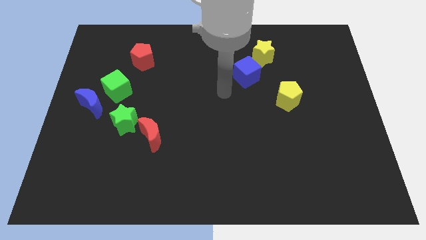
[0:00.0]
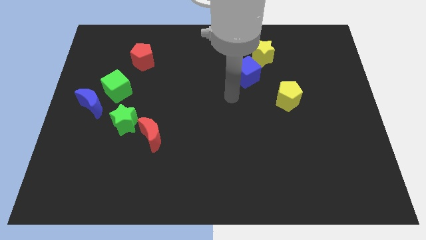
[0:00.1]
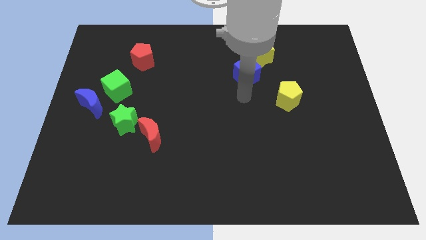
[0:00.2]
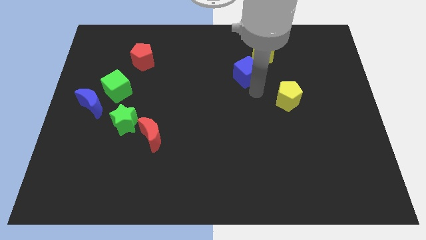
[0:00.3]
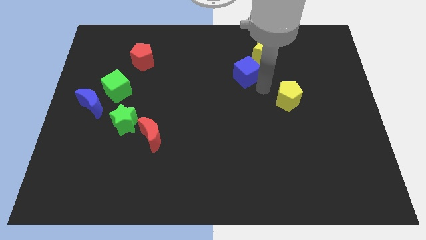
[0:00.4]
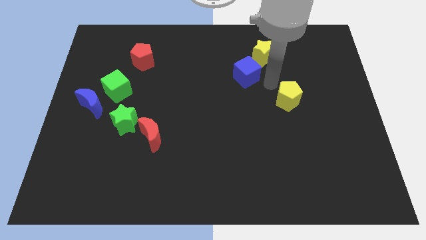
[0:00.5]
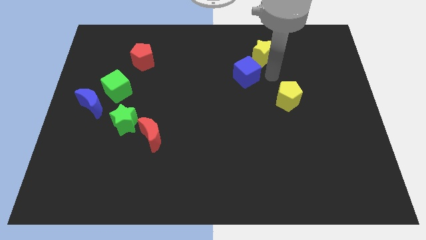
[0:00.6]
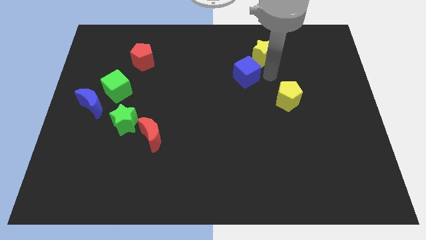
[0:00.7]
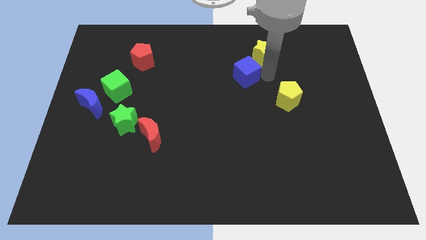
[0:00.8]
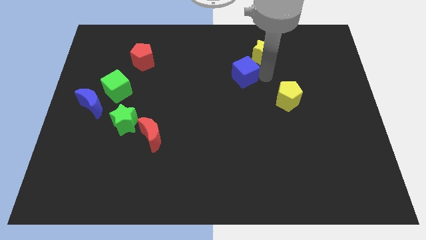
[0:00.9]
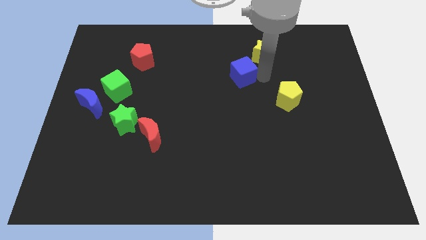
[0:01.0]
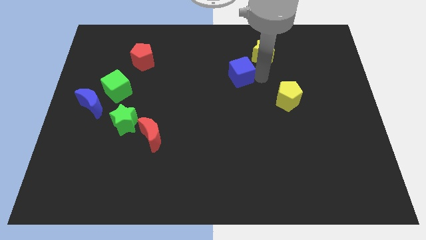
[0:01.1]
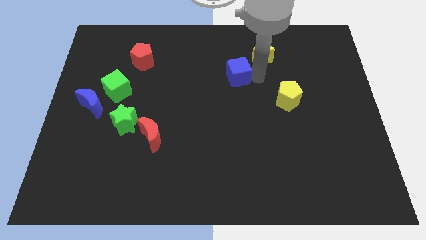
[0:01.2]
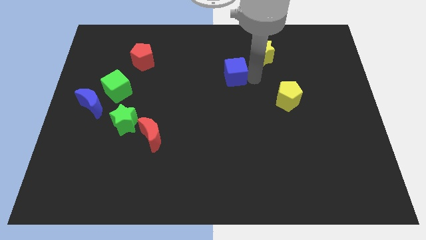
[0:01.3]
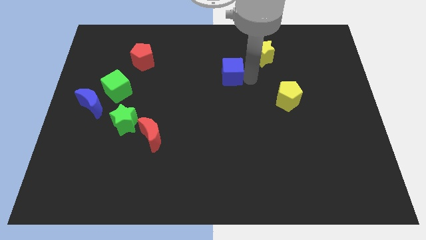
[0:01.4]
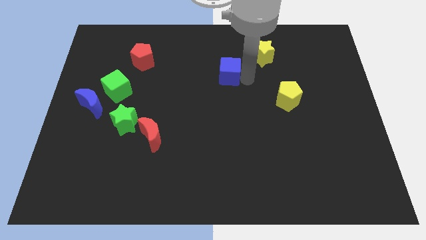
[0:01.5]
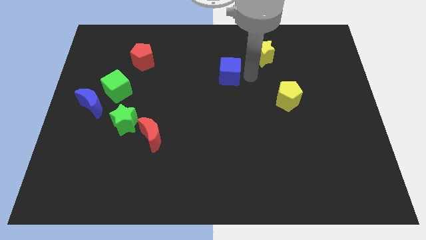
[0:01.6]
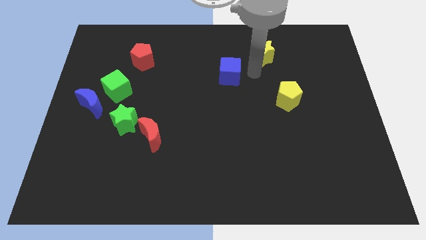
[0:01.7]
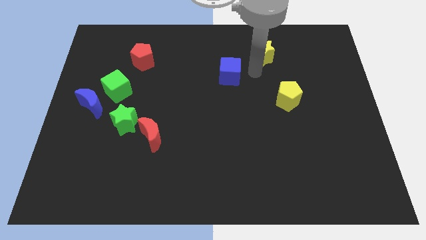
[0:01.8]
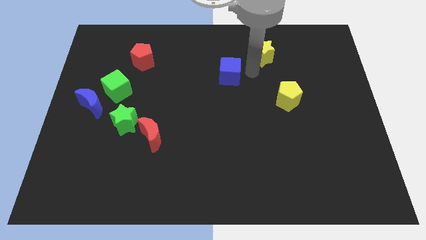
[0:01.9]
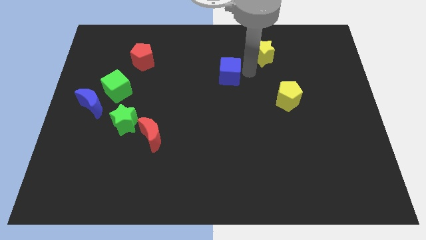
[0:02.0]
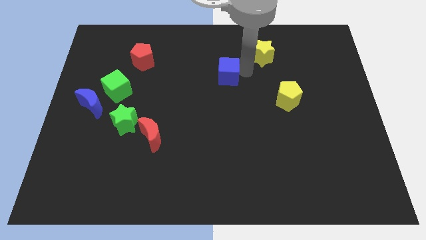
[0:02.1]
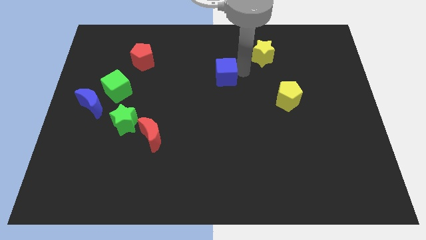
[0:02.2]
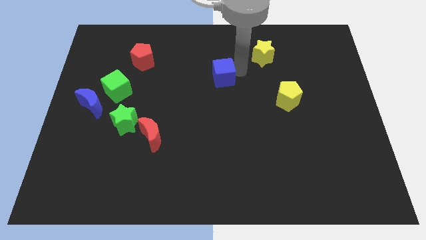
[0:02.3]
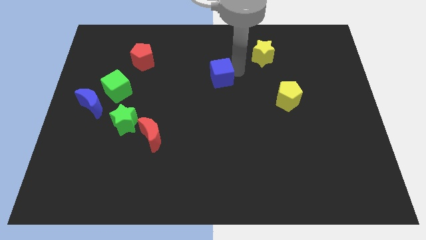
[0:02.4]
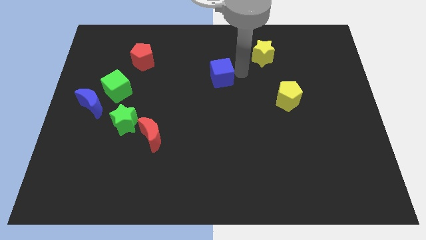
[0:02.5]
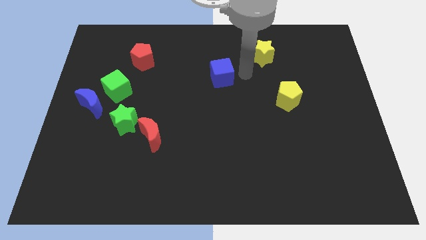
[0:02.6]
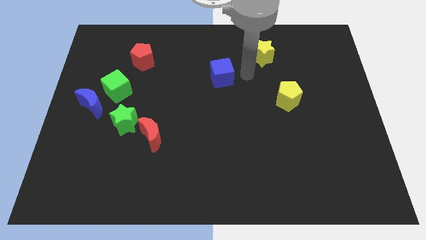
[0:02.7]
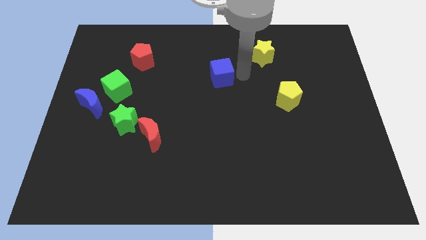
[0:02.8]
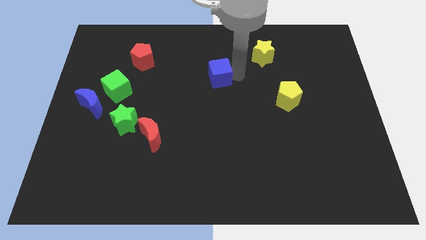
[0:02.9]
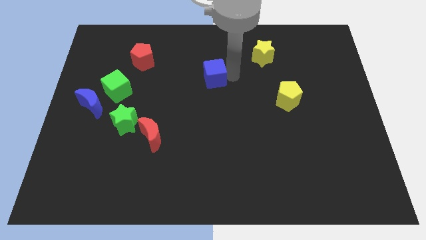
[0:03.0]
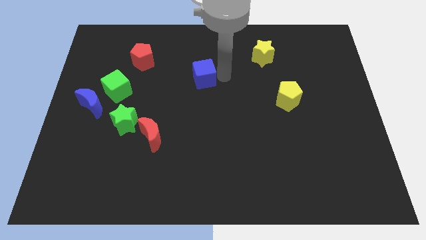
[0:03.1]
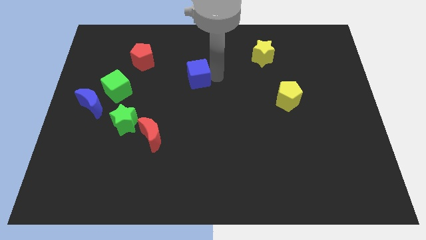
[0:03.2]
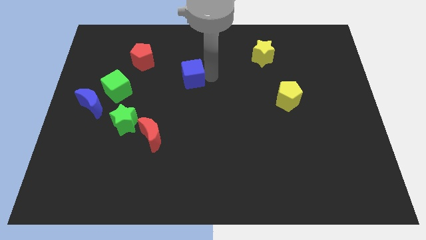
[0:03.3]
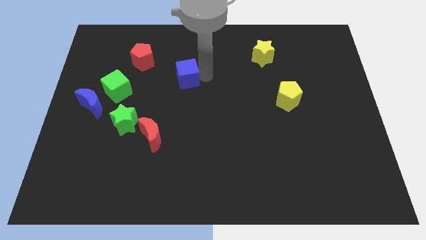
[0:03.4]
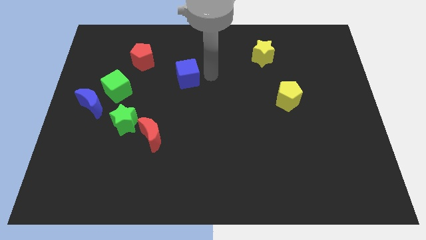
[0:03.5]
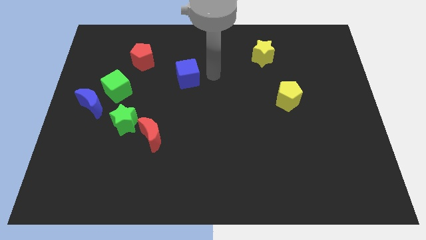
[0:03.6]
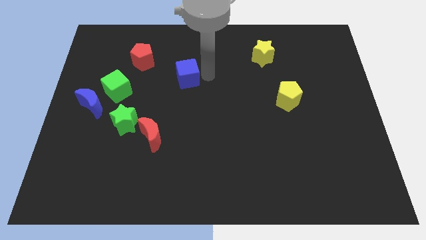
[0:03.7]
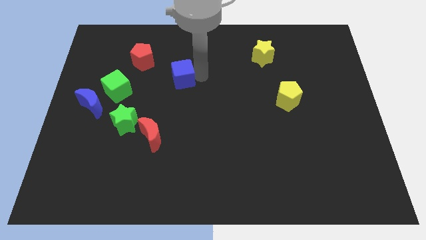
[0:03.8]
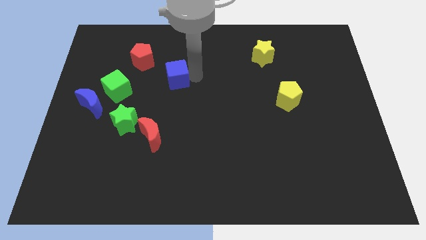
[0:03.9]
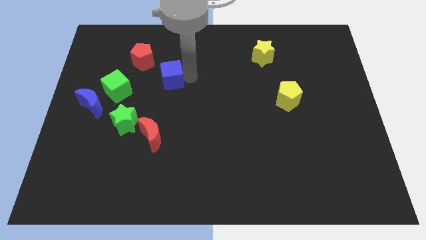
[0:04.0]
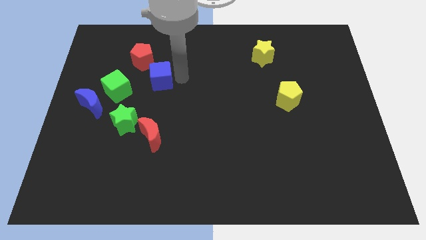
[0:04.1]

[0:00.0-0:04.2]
push the blue cube left

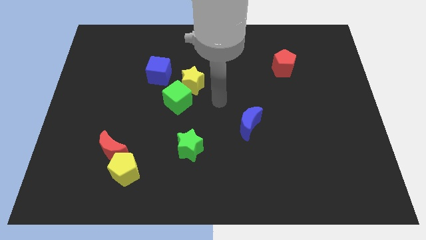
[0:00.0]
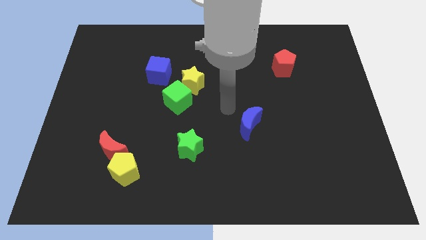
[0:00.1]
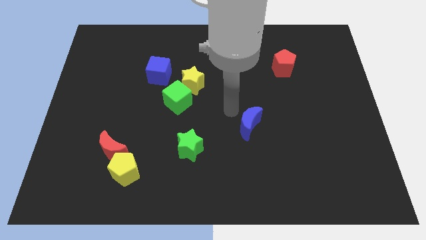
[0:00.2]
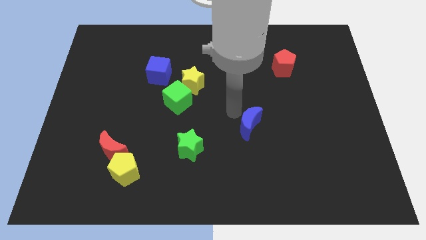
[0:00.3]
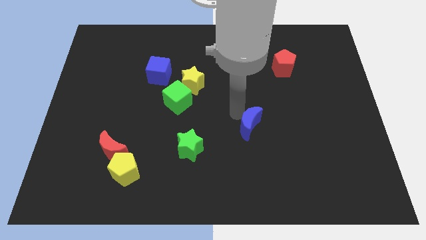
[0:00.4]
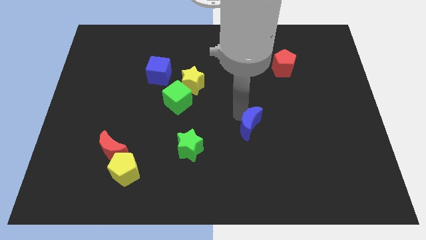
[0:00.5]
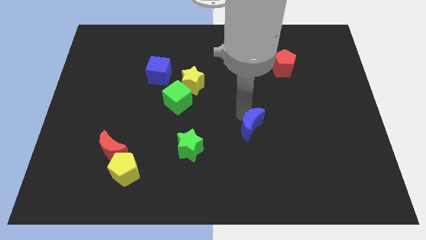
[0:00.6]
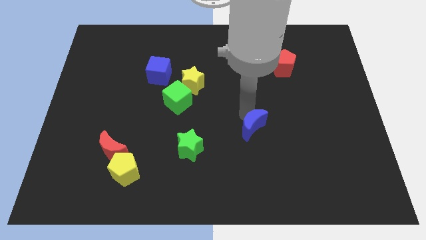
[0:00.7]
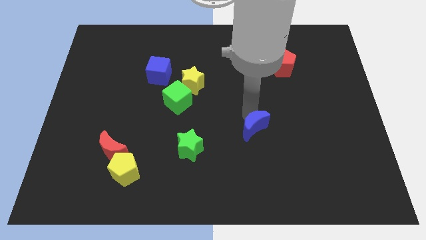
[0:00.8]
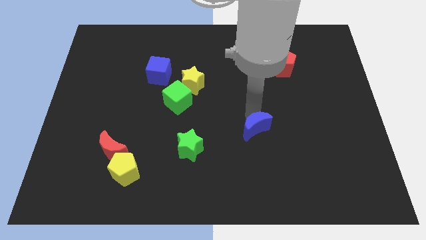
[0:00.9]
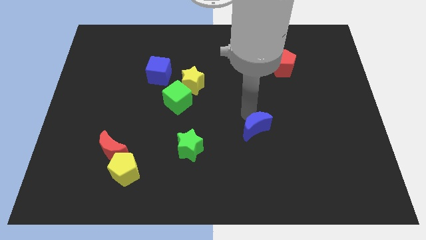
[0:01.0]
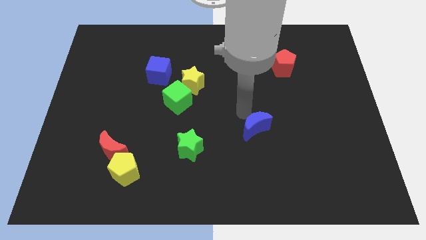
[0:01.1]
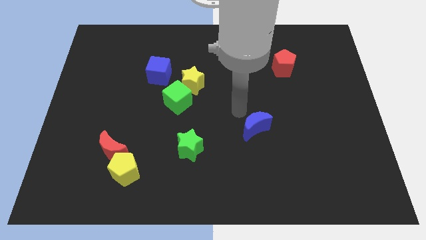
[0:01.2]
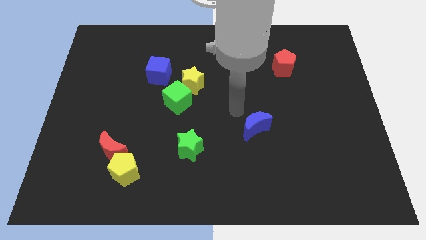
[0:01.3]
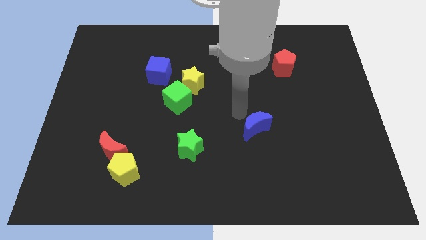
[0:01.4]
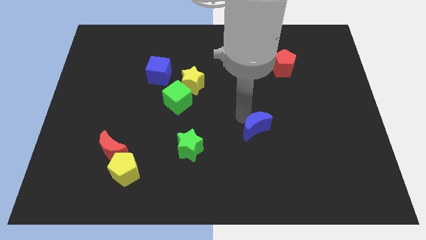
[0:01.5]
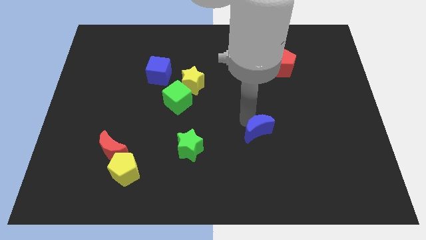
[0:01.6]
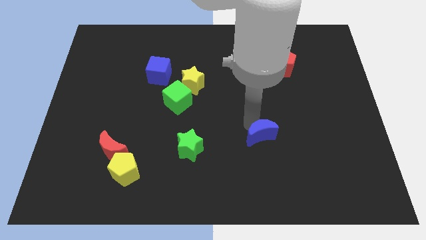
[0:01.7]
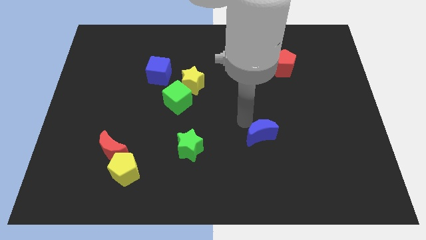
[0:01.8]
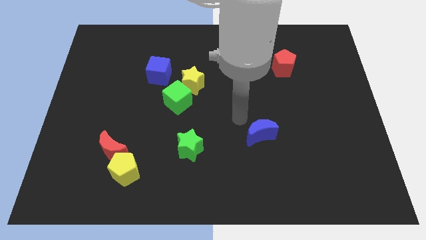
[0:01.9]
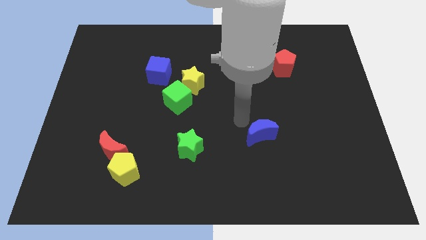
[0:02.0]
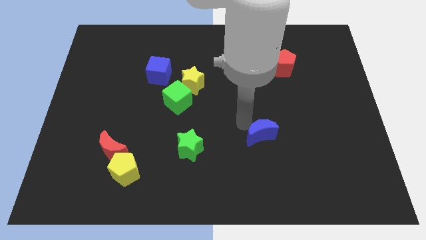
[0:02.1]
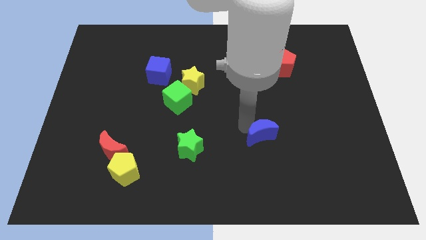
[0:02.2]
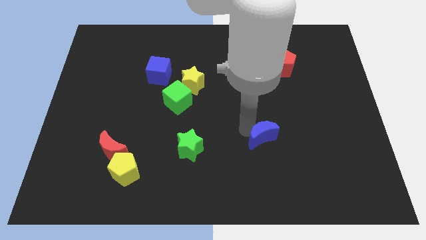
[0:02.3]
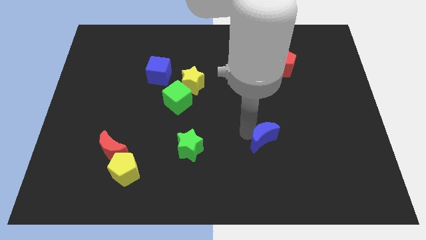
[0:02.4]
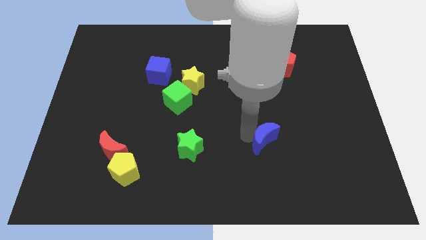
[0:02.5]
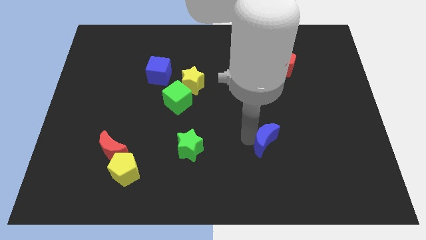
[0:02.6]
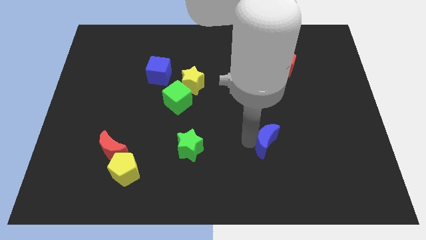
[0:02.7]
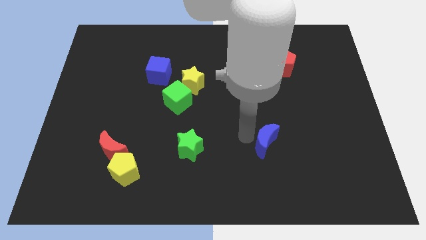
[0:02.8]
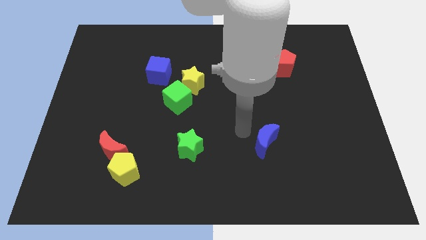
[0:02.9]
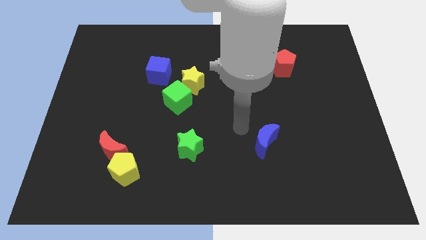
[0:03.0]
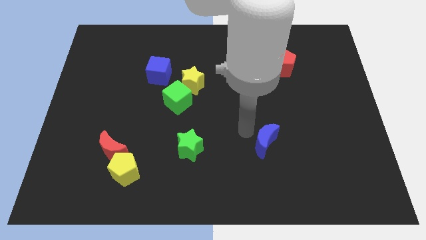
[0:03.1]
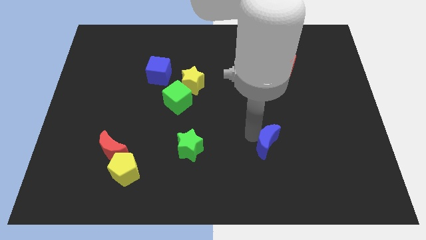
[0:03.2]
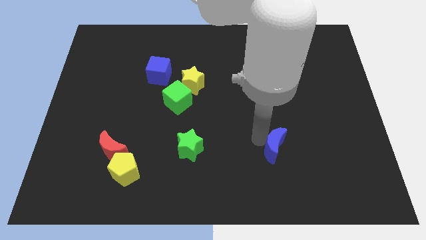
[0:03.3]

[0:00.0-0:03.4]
slightly move the blue moon diagonally down and to the right

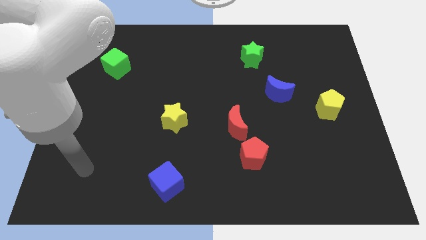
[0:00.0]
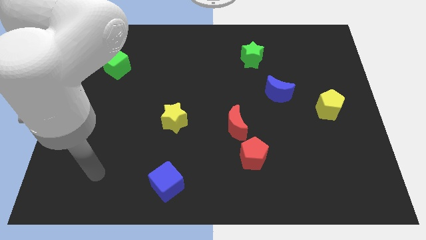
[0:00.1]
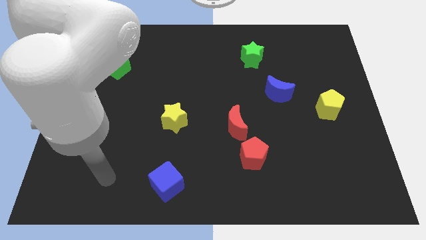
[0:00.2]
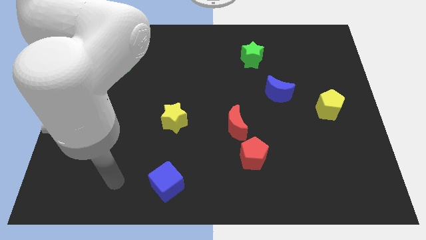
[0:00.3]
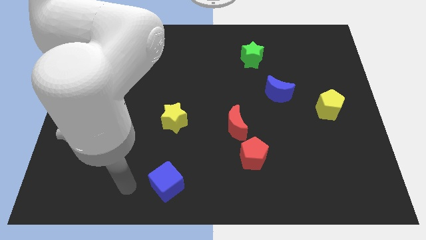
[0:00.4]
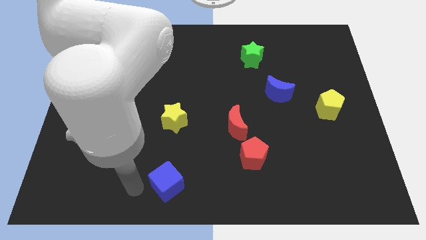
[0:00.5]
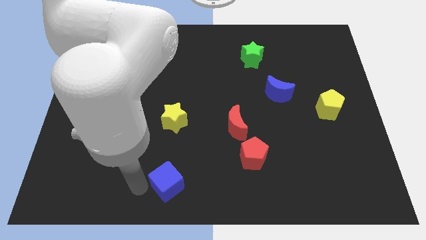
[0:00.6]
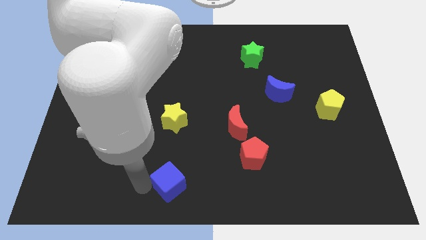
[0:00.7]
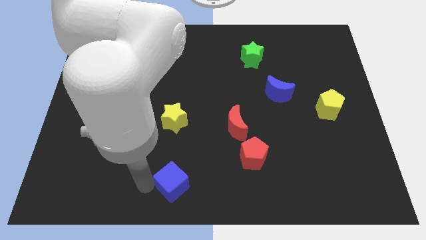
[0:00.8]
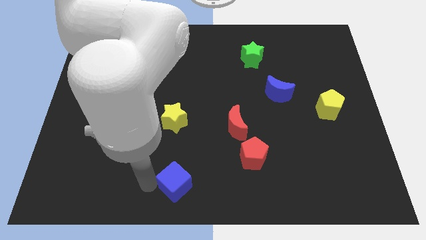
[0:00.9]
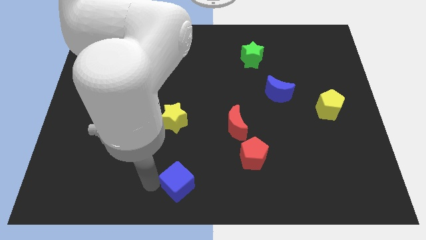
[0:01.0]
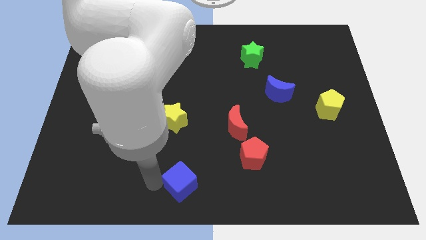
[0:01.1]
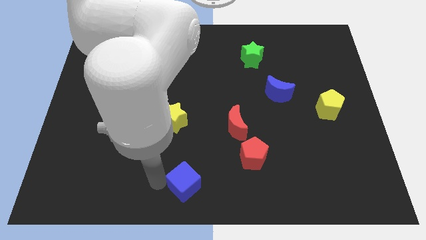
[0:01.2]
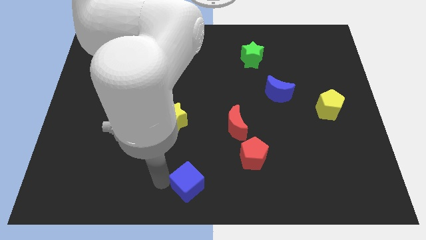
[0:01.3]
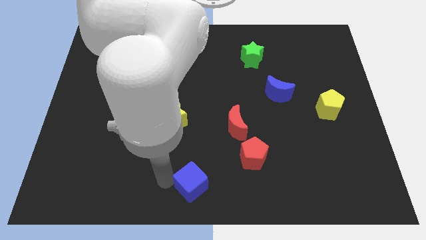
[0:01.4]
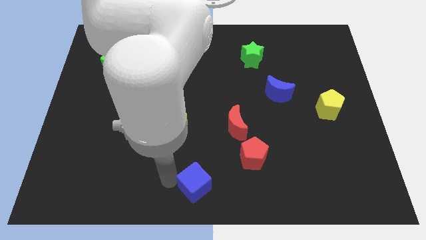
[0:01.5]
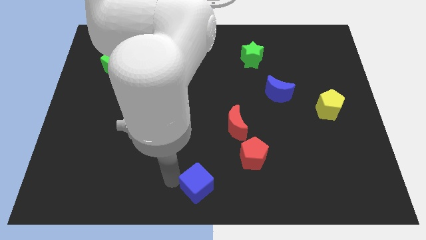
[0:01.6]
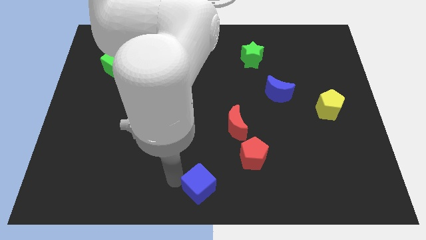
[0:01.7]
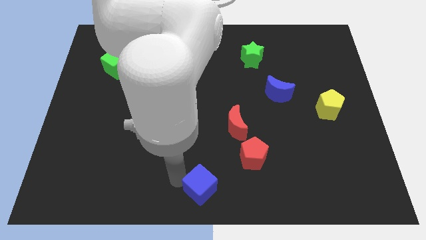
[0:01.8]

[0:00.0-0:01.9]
push the blue cube a little bit right
